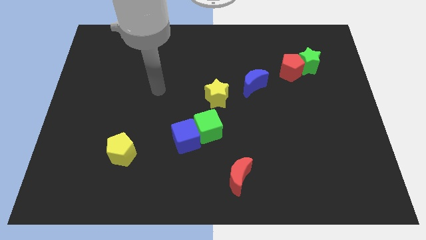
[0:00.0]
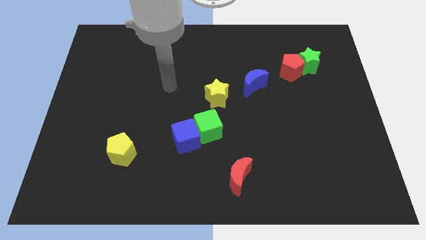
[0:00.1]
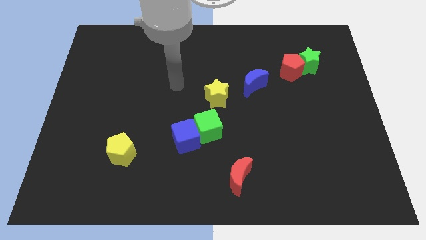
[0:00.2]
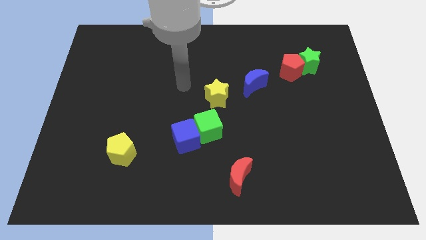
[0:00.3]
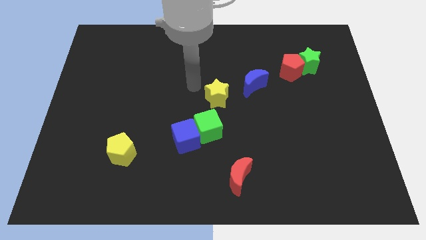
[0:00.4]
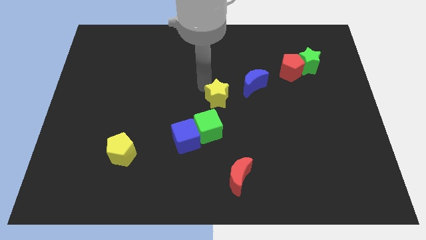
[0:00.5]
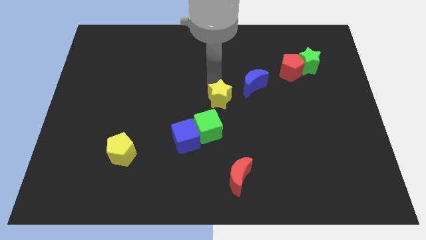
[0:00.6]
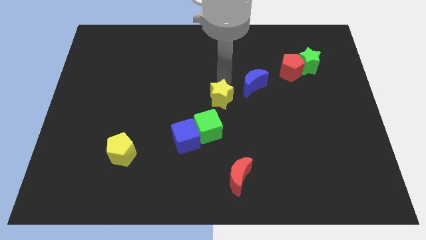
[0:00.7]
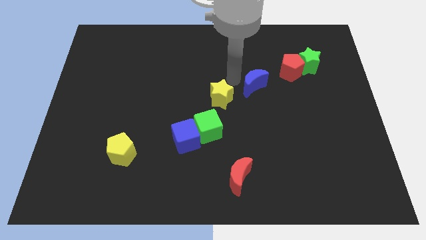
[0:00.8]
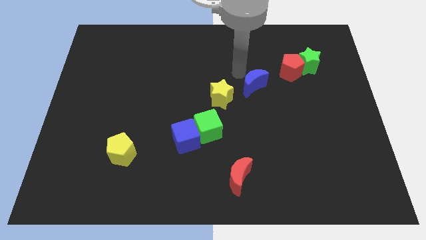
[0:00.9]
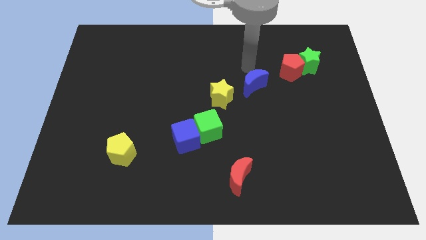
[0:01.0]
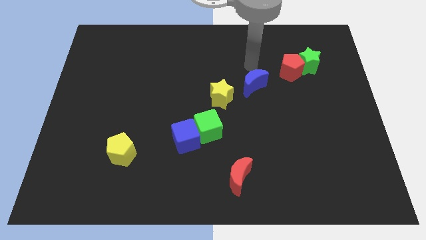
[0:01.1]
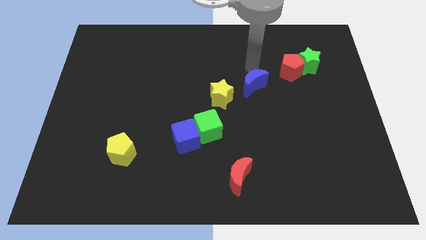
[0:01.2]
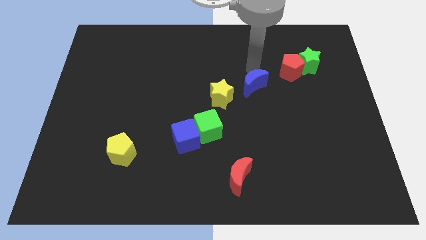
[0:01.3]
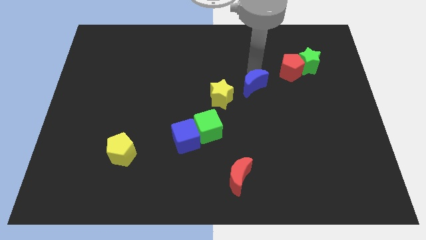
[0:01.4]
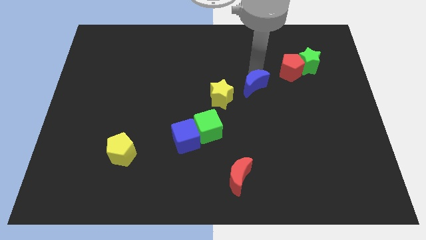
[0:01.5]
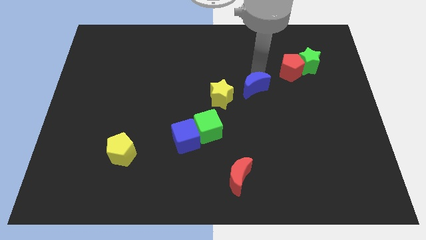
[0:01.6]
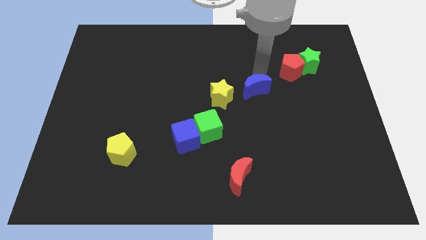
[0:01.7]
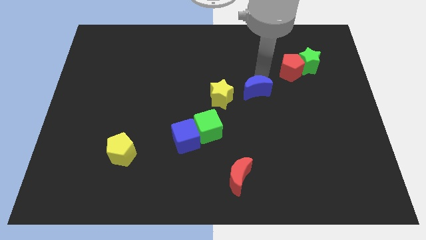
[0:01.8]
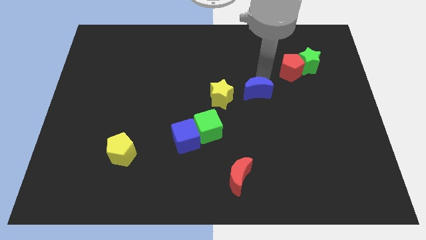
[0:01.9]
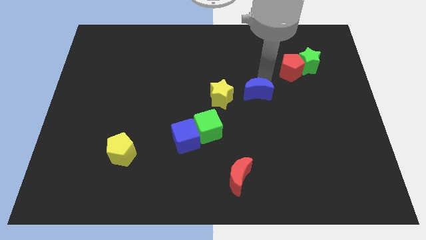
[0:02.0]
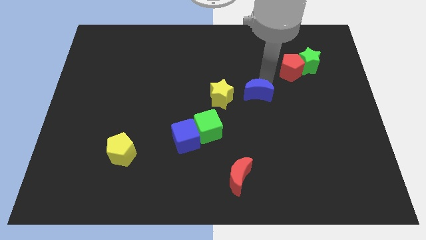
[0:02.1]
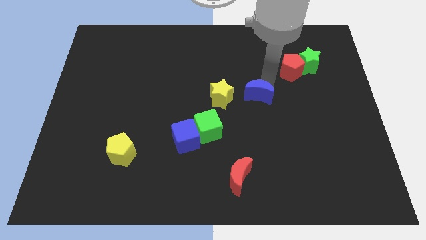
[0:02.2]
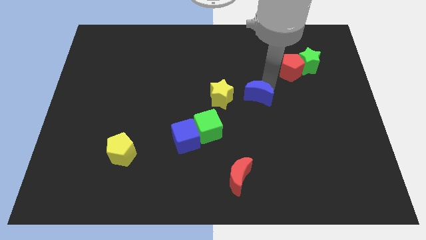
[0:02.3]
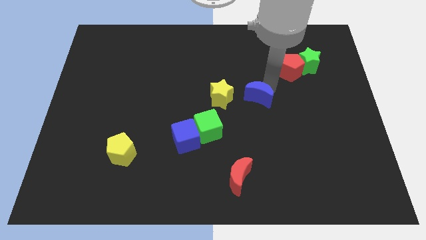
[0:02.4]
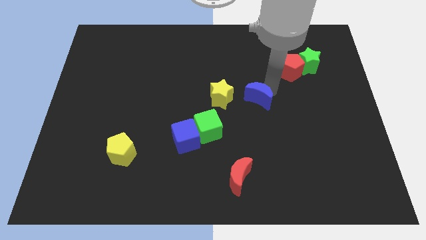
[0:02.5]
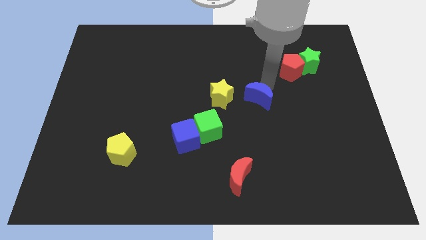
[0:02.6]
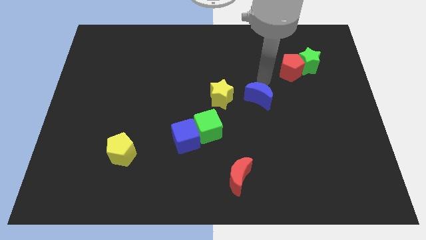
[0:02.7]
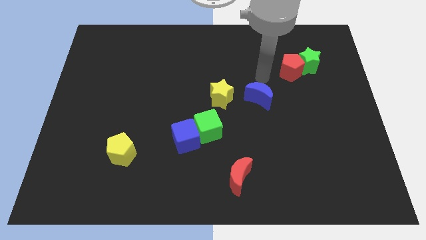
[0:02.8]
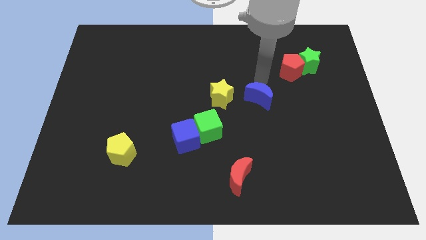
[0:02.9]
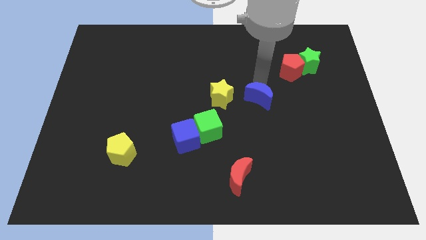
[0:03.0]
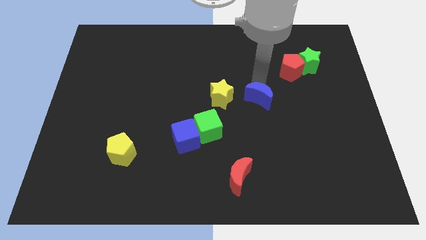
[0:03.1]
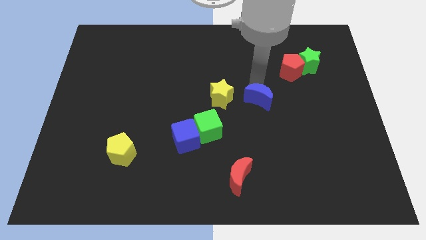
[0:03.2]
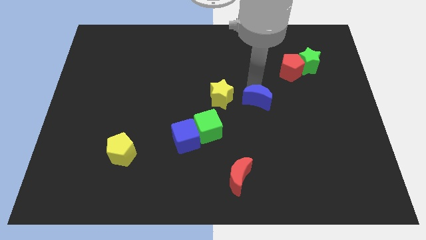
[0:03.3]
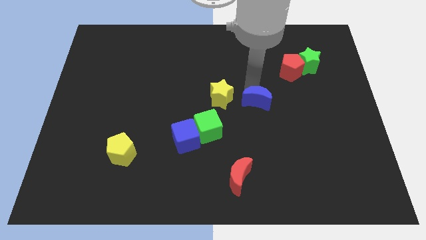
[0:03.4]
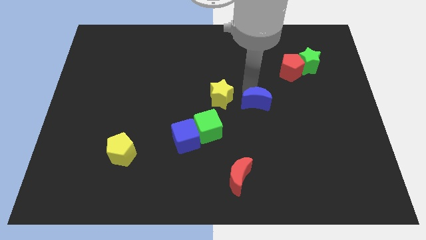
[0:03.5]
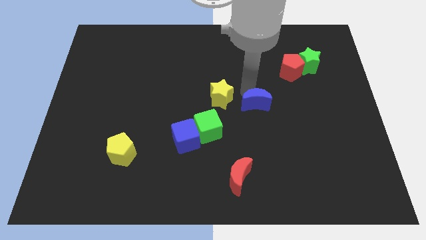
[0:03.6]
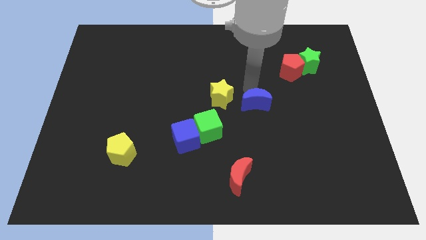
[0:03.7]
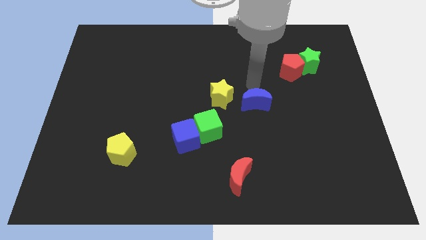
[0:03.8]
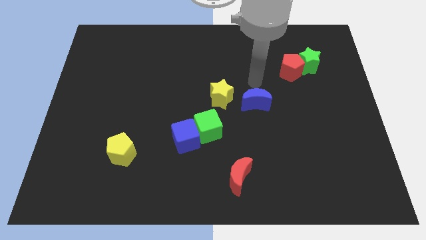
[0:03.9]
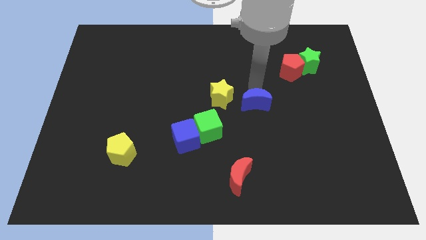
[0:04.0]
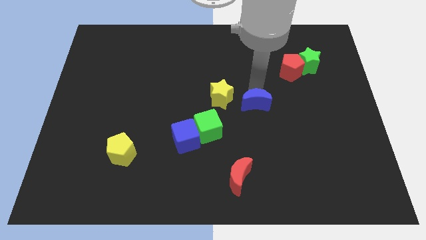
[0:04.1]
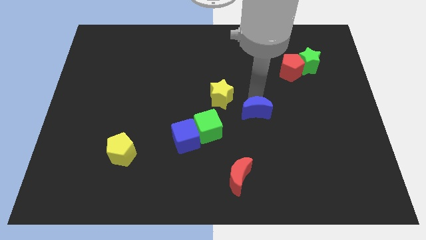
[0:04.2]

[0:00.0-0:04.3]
push the blue moon down a bit

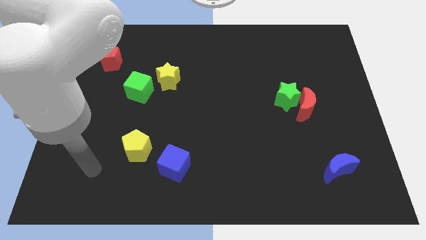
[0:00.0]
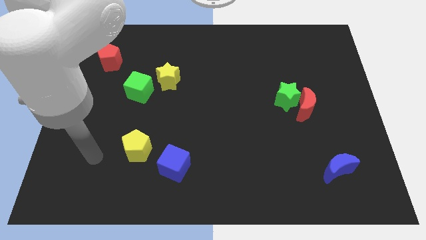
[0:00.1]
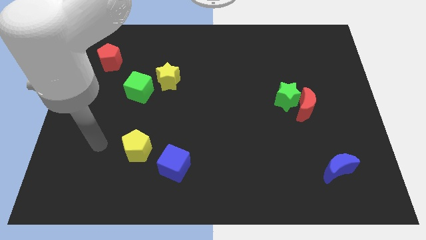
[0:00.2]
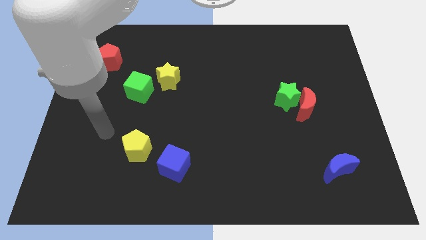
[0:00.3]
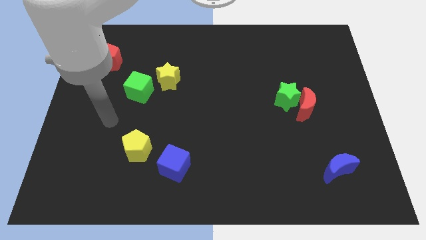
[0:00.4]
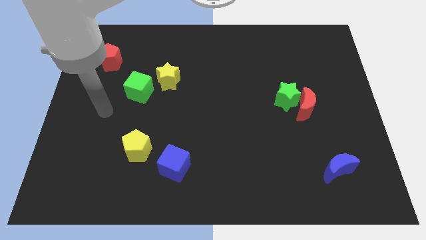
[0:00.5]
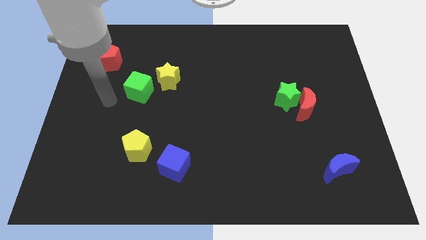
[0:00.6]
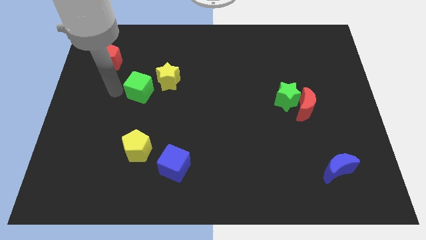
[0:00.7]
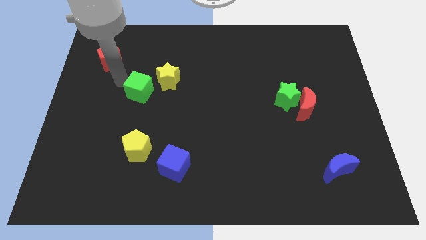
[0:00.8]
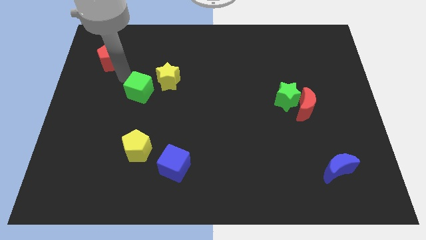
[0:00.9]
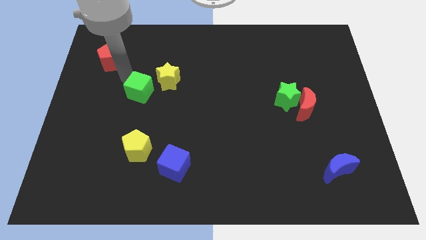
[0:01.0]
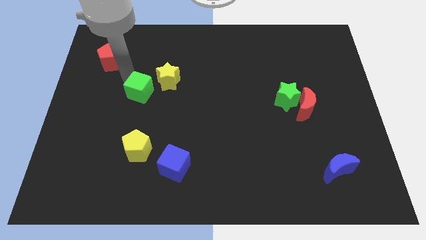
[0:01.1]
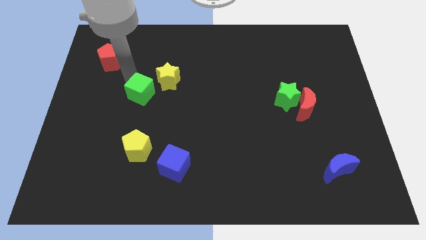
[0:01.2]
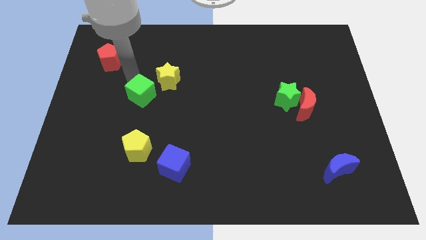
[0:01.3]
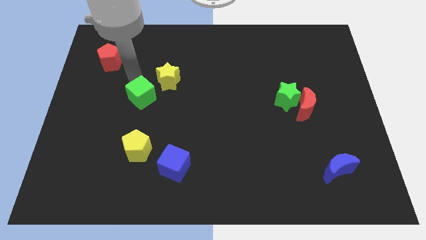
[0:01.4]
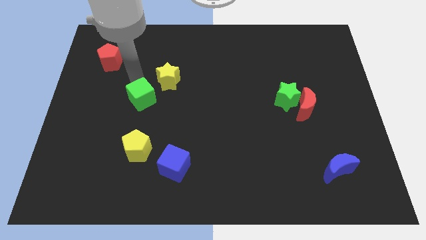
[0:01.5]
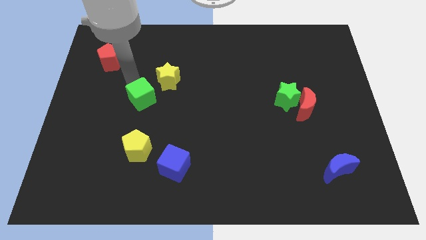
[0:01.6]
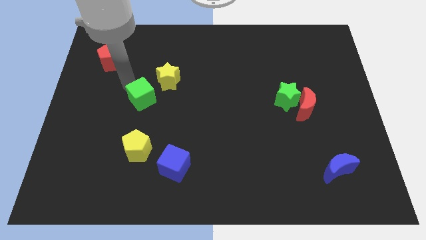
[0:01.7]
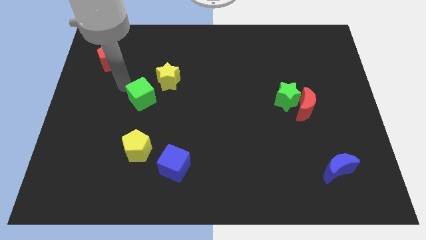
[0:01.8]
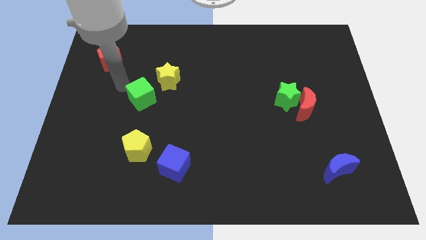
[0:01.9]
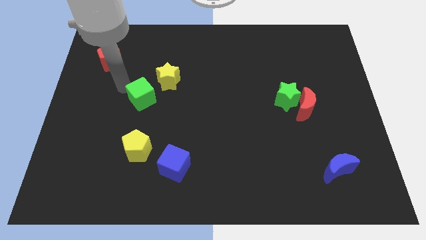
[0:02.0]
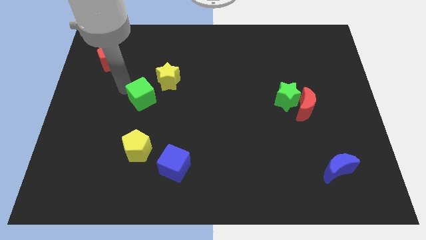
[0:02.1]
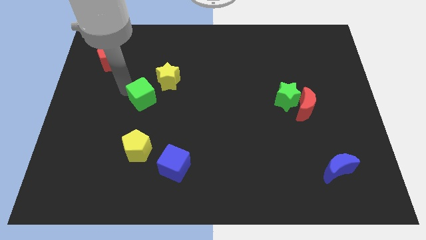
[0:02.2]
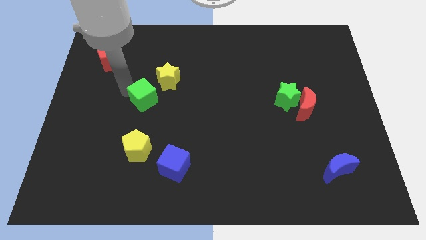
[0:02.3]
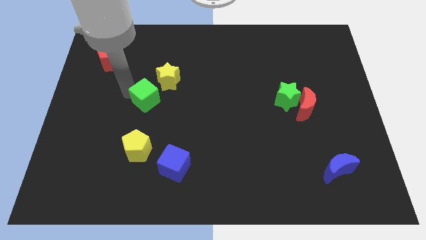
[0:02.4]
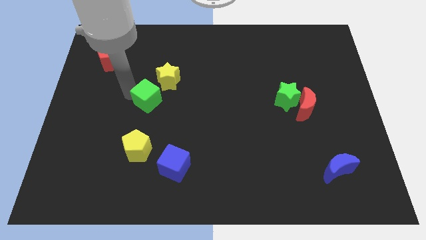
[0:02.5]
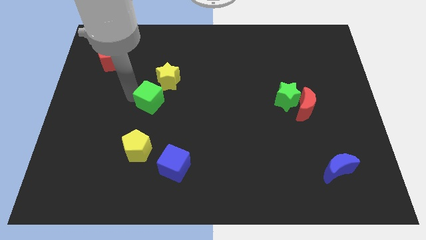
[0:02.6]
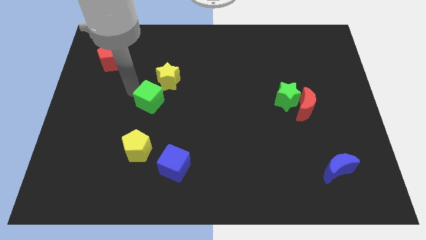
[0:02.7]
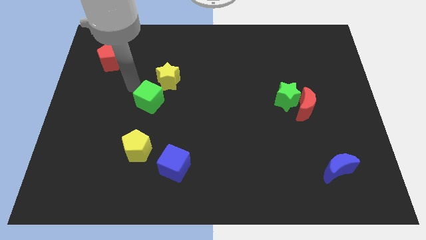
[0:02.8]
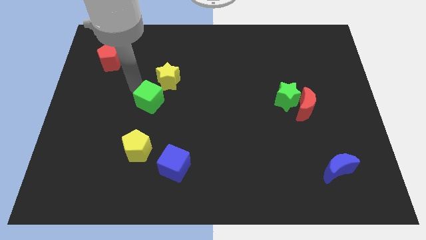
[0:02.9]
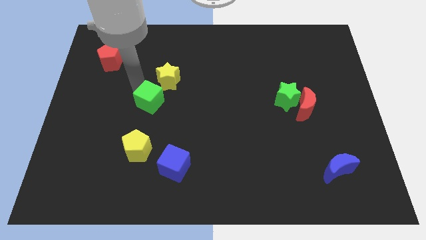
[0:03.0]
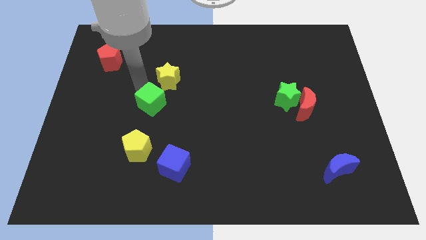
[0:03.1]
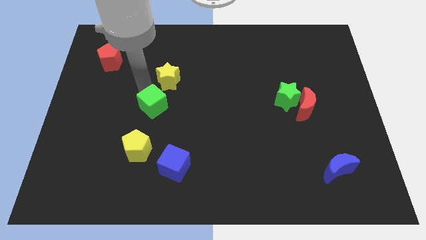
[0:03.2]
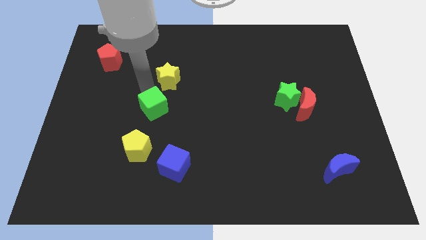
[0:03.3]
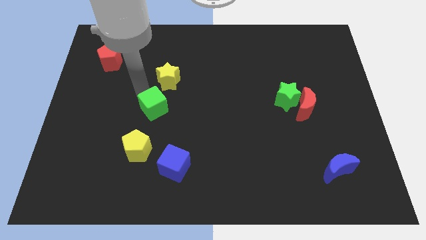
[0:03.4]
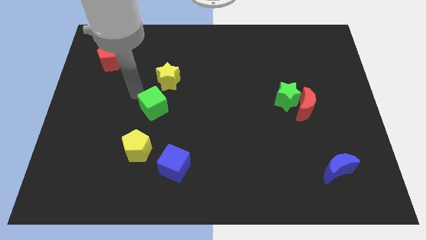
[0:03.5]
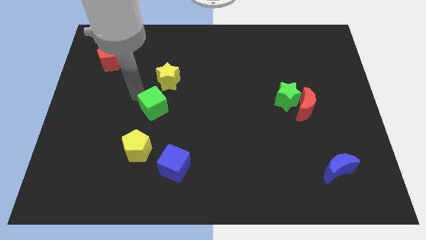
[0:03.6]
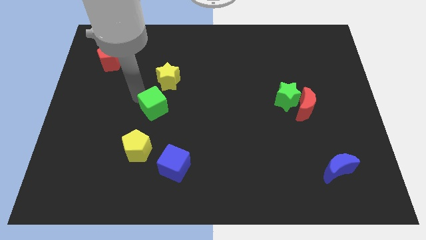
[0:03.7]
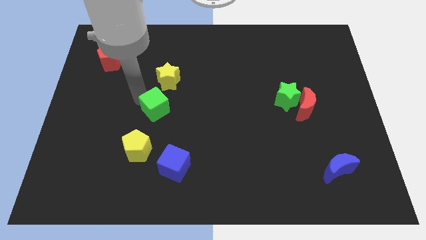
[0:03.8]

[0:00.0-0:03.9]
slightly slide the green cube downwards and right diagonally
